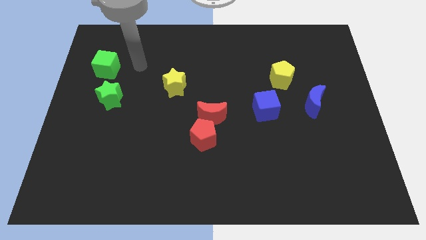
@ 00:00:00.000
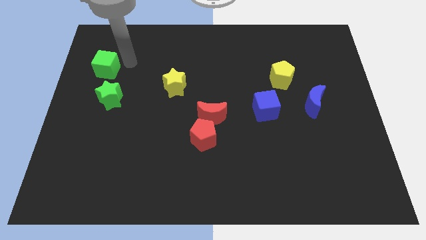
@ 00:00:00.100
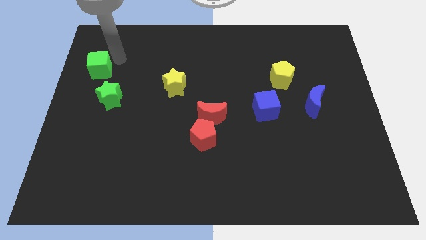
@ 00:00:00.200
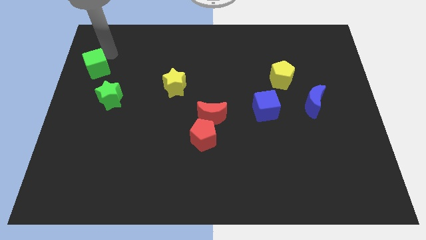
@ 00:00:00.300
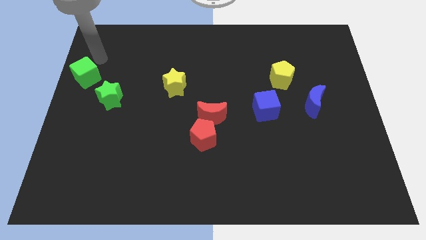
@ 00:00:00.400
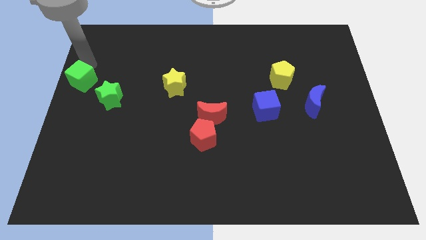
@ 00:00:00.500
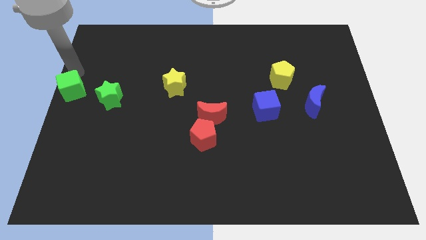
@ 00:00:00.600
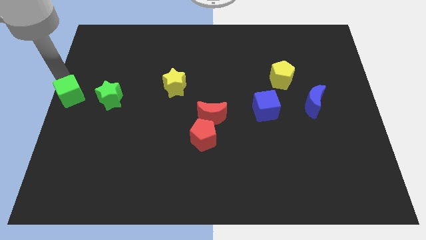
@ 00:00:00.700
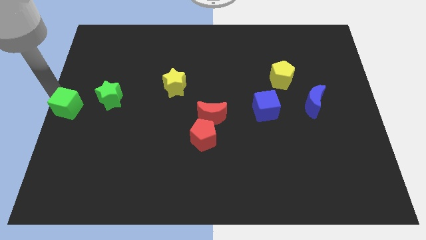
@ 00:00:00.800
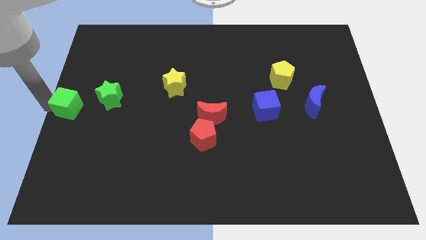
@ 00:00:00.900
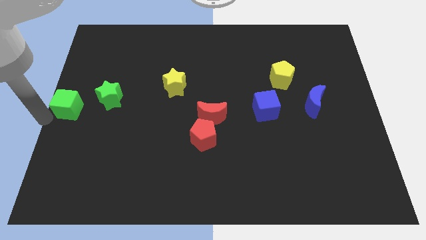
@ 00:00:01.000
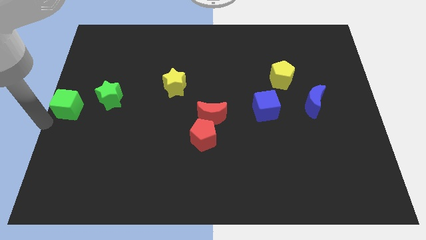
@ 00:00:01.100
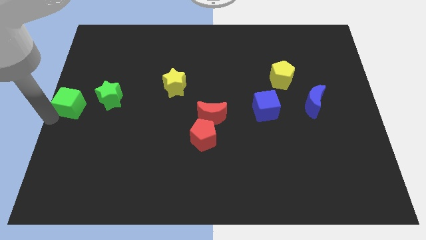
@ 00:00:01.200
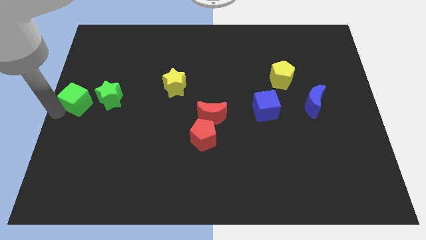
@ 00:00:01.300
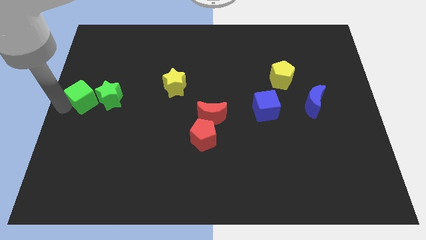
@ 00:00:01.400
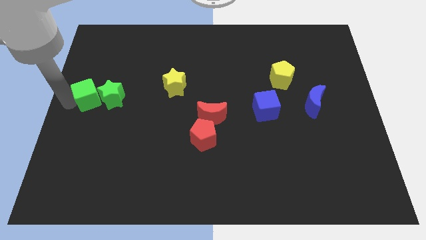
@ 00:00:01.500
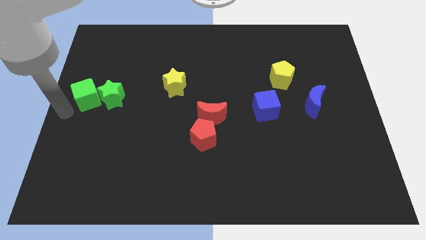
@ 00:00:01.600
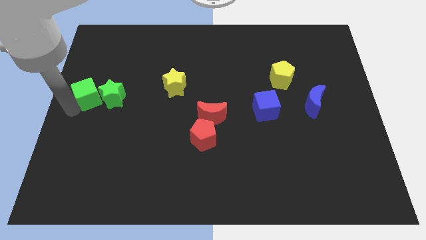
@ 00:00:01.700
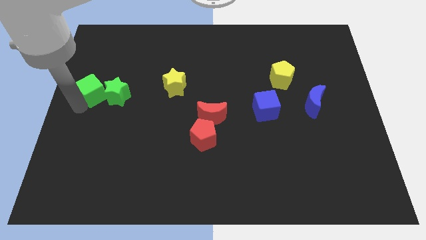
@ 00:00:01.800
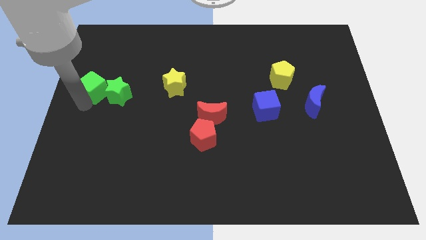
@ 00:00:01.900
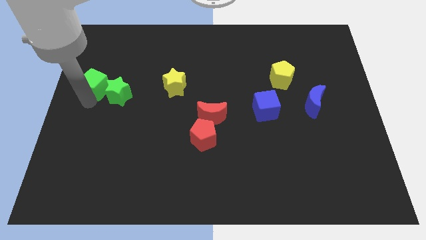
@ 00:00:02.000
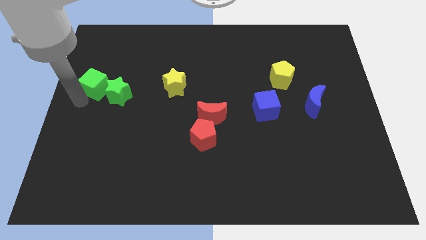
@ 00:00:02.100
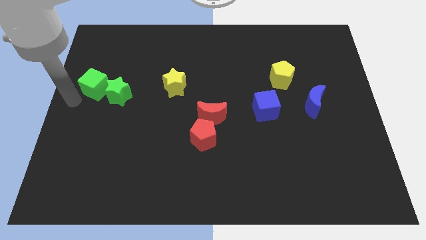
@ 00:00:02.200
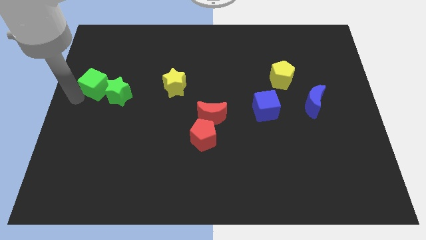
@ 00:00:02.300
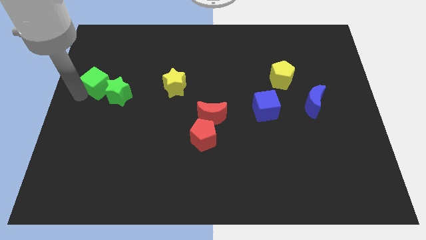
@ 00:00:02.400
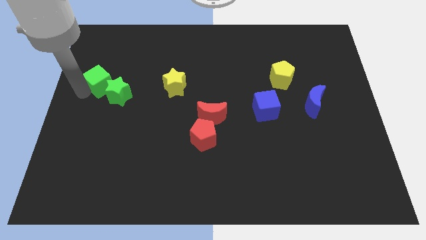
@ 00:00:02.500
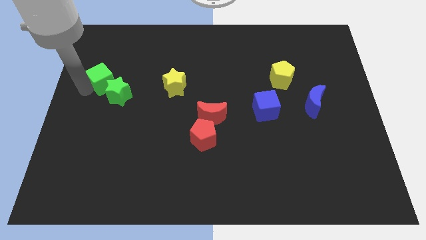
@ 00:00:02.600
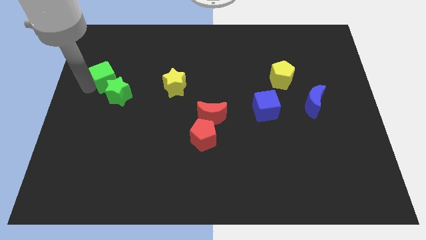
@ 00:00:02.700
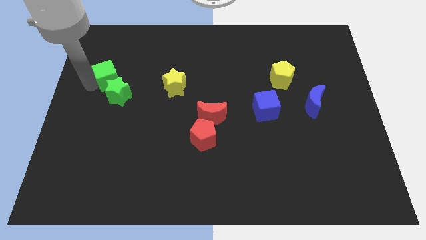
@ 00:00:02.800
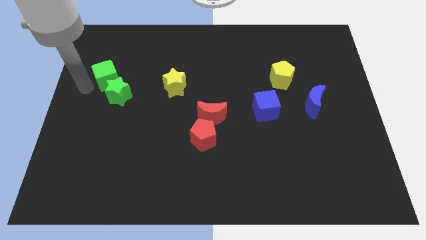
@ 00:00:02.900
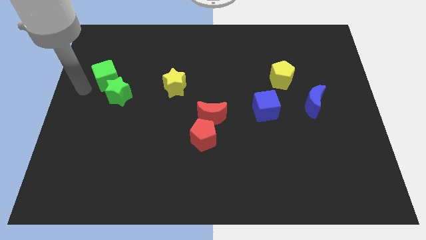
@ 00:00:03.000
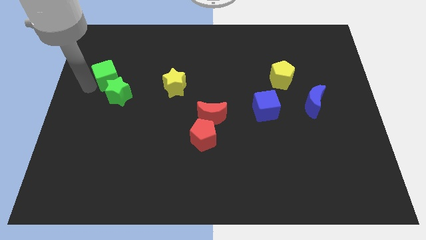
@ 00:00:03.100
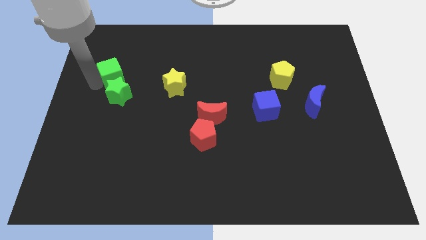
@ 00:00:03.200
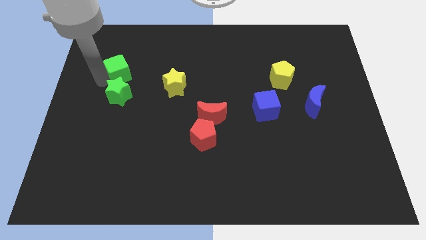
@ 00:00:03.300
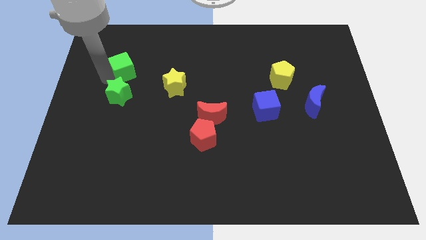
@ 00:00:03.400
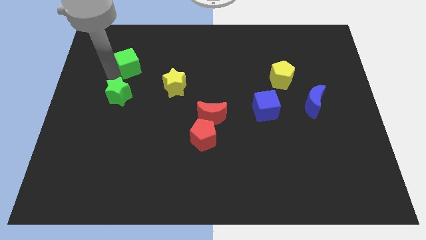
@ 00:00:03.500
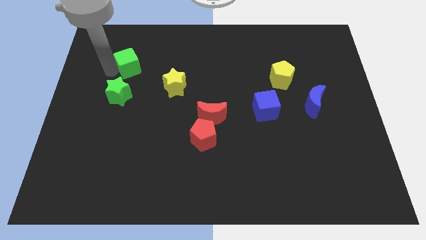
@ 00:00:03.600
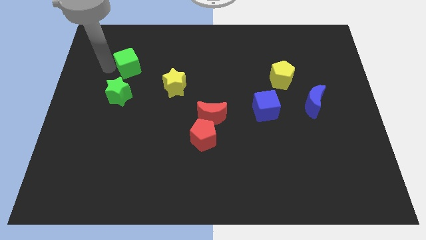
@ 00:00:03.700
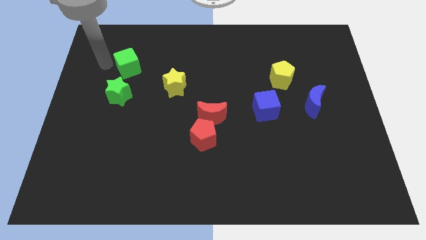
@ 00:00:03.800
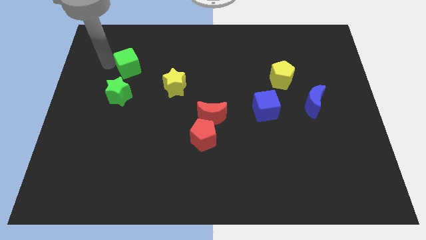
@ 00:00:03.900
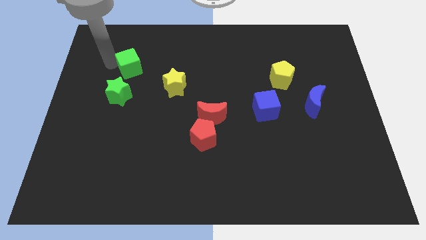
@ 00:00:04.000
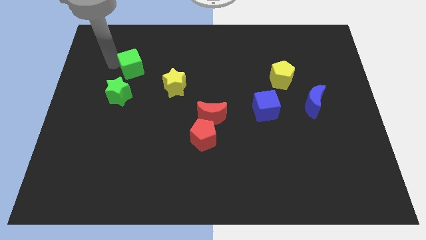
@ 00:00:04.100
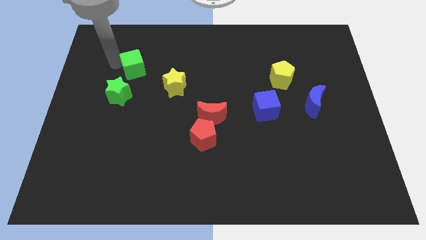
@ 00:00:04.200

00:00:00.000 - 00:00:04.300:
slide the green cube to the right a bit

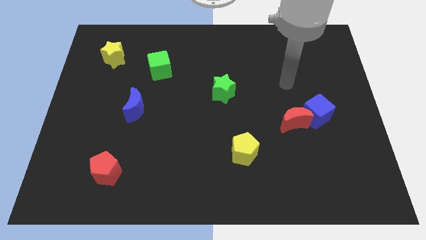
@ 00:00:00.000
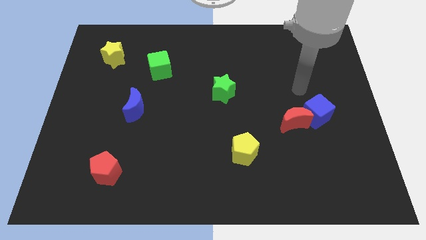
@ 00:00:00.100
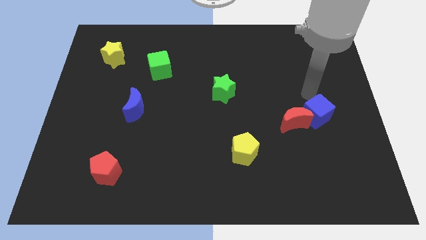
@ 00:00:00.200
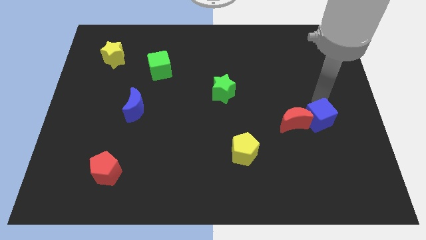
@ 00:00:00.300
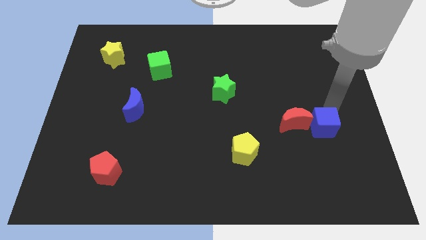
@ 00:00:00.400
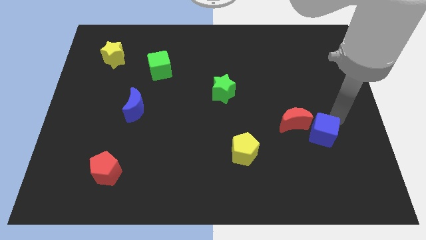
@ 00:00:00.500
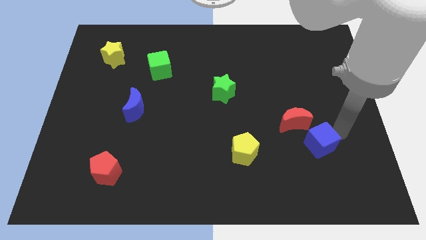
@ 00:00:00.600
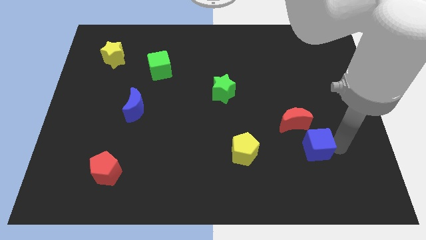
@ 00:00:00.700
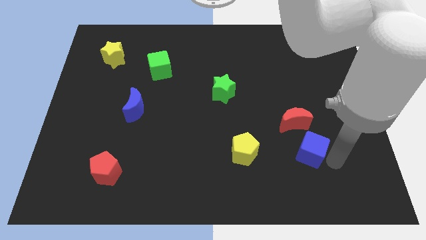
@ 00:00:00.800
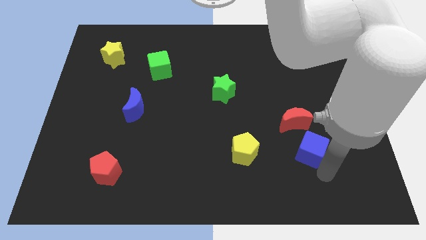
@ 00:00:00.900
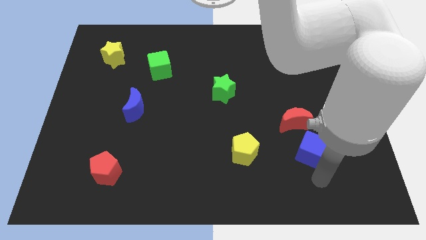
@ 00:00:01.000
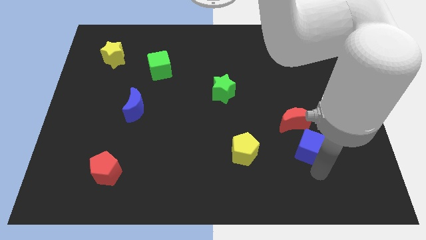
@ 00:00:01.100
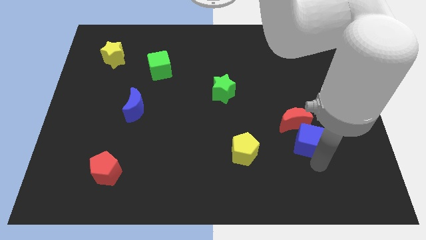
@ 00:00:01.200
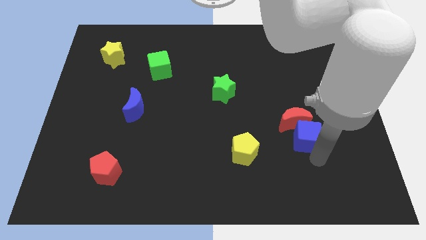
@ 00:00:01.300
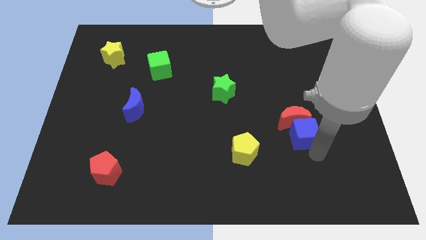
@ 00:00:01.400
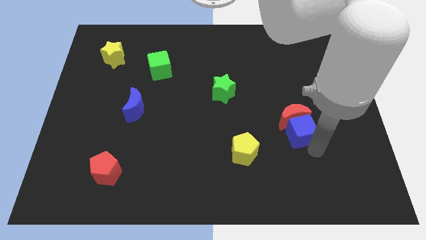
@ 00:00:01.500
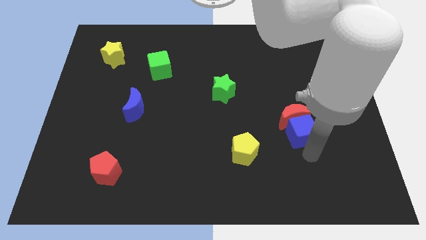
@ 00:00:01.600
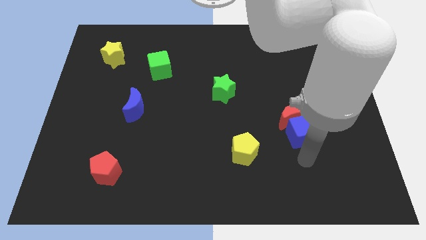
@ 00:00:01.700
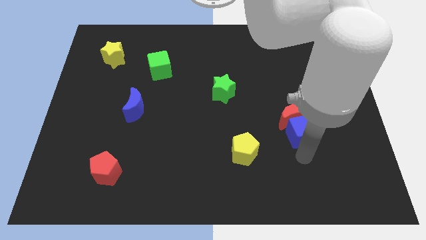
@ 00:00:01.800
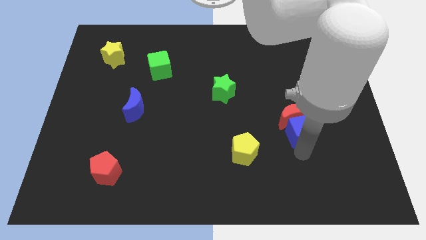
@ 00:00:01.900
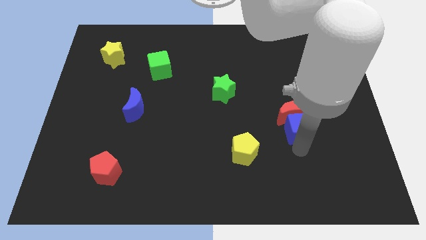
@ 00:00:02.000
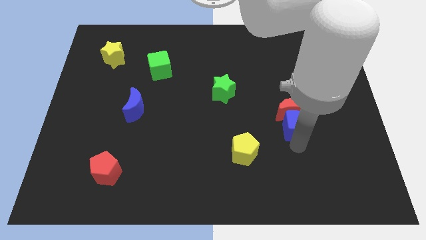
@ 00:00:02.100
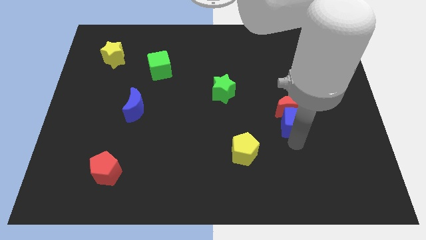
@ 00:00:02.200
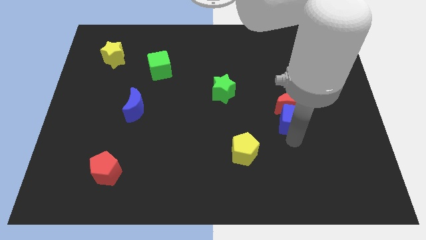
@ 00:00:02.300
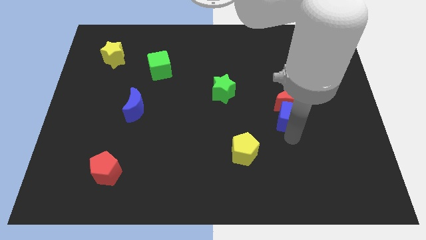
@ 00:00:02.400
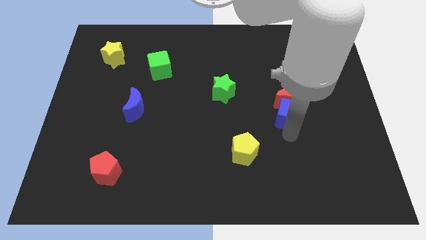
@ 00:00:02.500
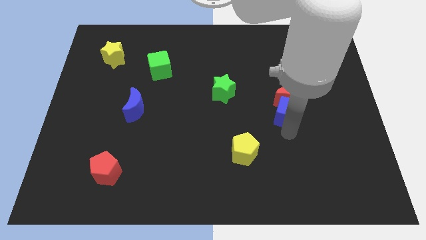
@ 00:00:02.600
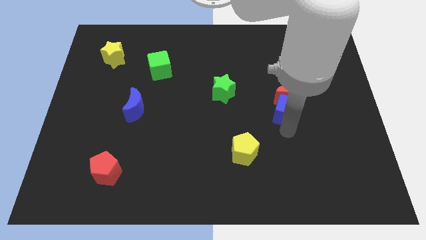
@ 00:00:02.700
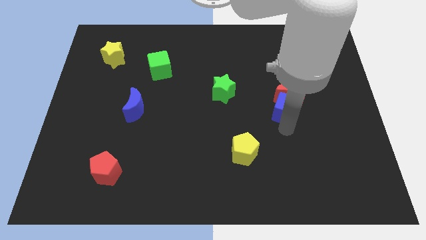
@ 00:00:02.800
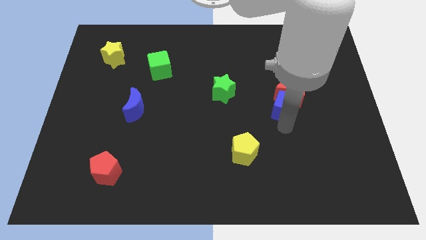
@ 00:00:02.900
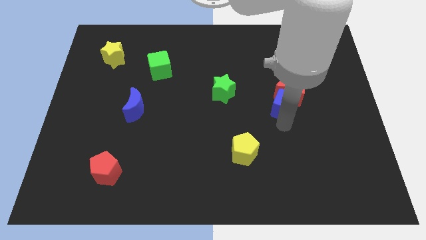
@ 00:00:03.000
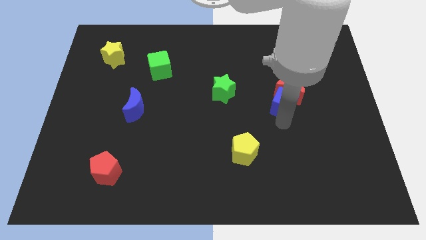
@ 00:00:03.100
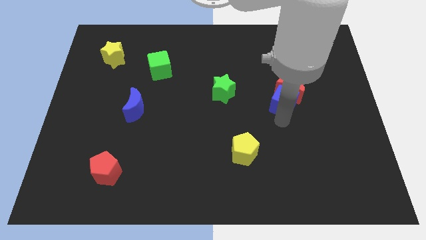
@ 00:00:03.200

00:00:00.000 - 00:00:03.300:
slide the blue cube somewhat diagonally upwards and to the left
